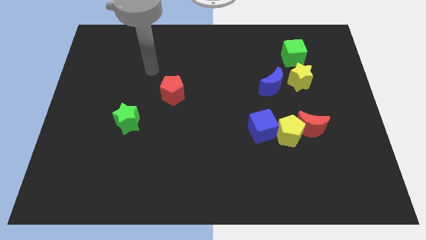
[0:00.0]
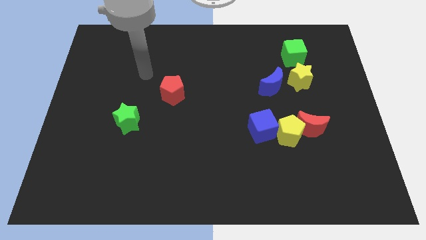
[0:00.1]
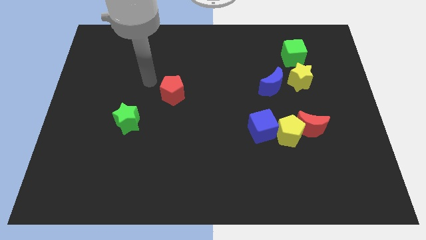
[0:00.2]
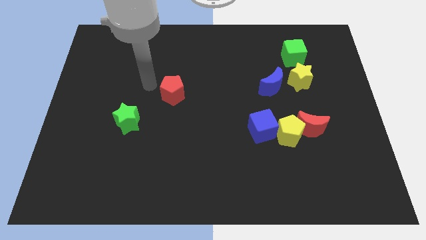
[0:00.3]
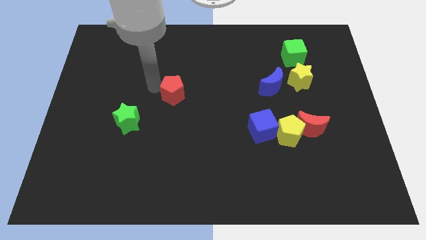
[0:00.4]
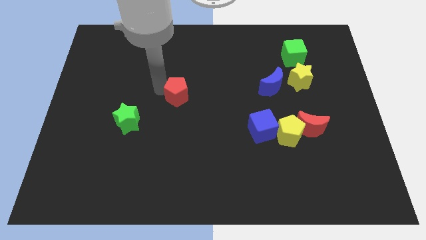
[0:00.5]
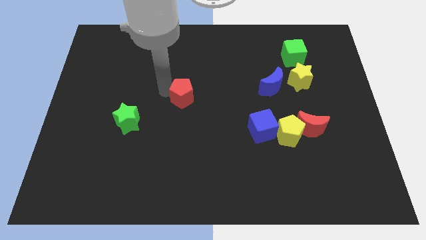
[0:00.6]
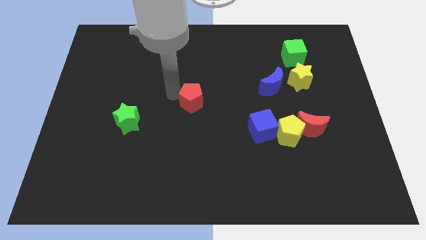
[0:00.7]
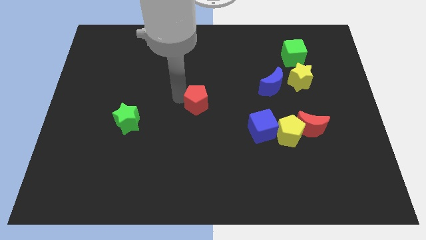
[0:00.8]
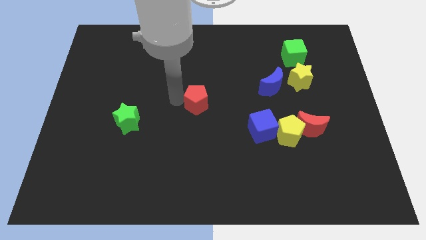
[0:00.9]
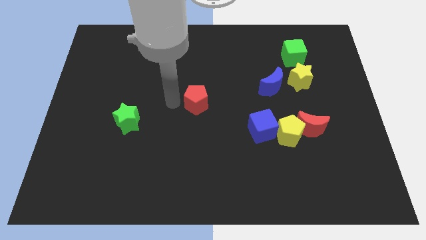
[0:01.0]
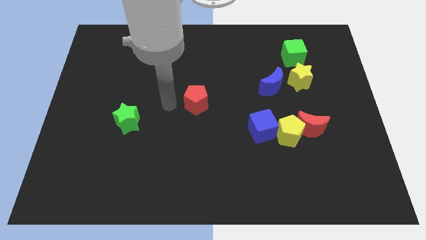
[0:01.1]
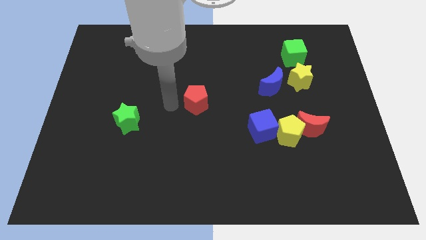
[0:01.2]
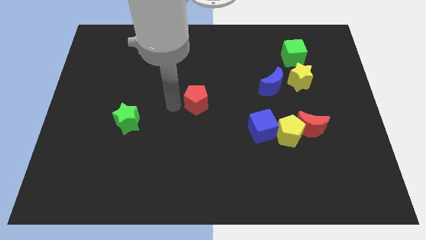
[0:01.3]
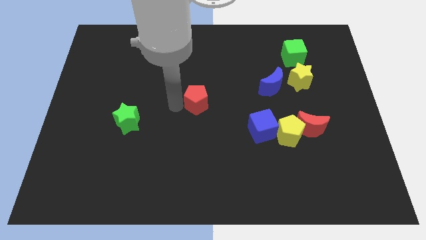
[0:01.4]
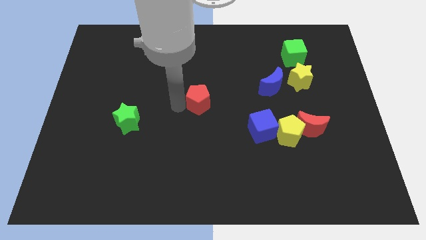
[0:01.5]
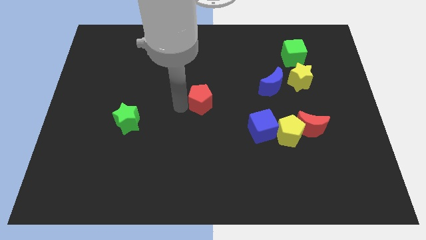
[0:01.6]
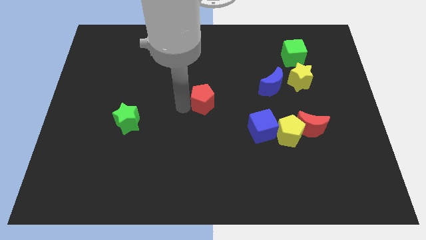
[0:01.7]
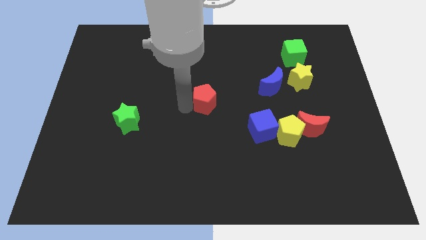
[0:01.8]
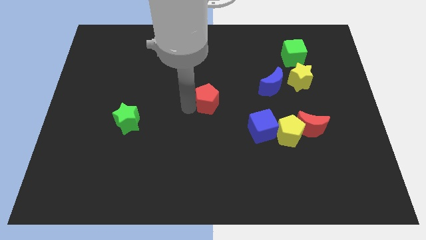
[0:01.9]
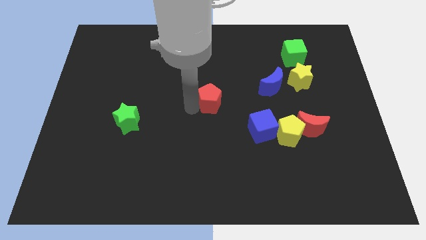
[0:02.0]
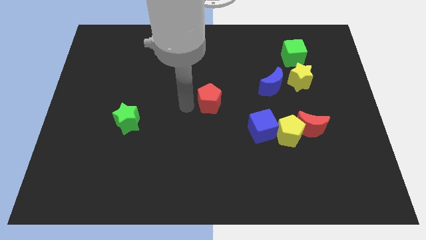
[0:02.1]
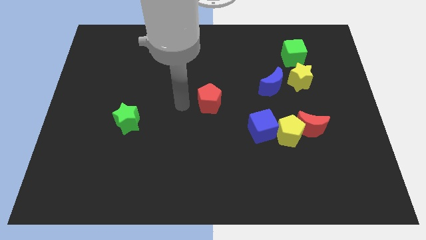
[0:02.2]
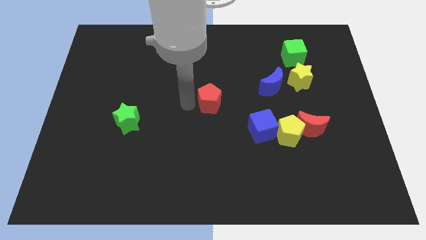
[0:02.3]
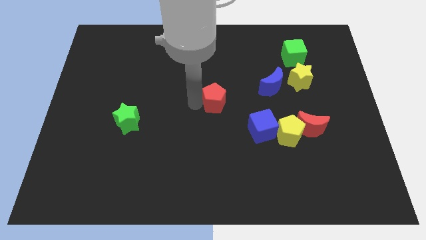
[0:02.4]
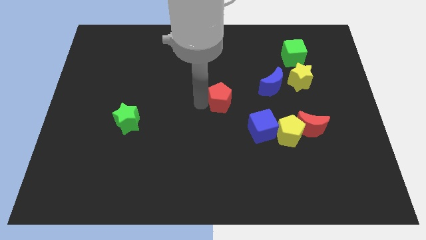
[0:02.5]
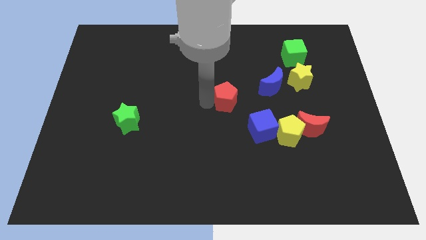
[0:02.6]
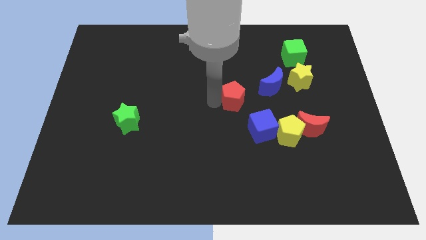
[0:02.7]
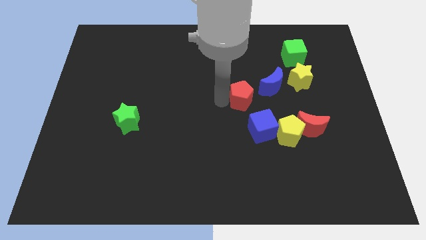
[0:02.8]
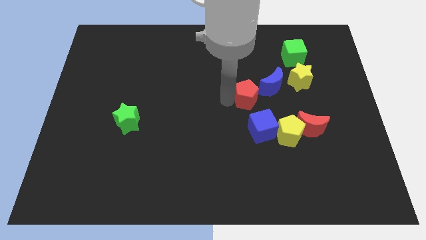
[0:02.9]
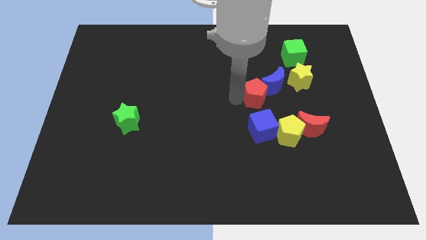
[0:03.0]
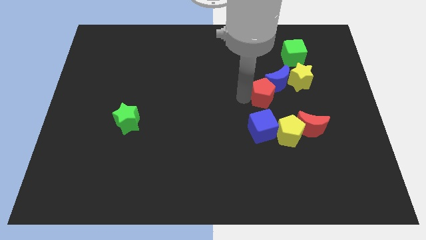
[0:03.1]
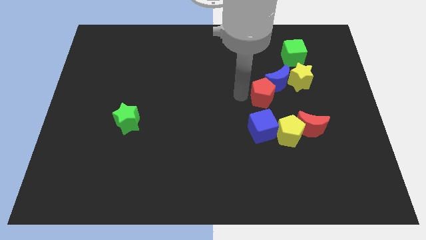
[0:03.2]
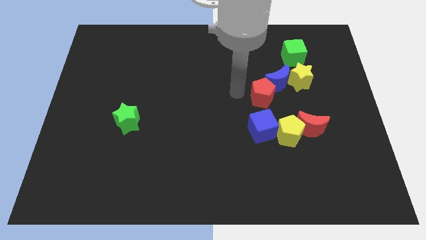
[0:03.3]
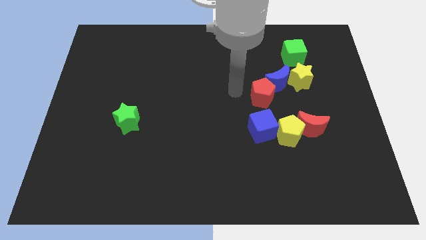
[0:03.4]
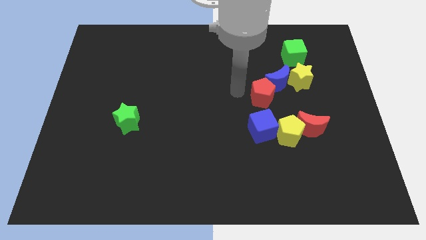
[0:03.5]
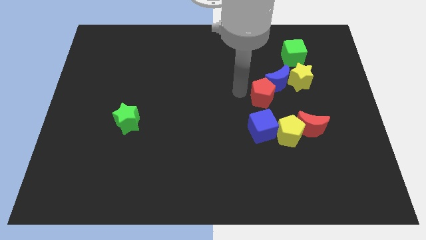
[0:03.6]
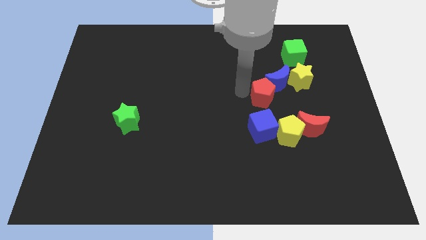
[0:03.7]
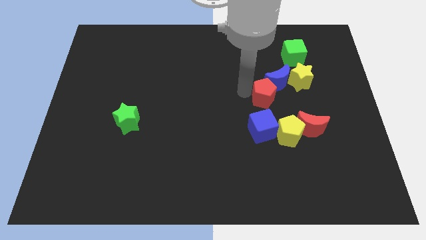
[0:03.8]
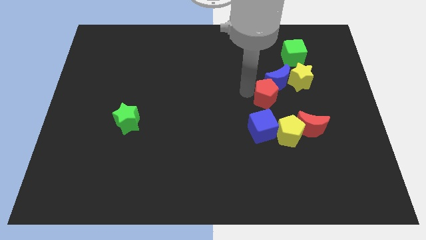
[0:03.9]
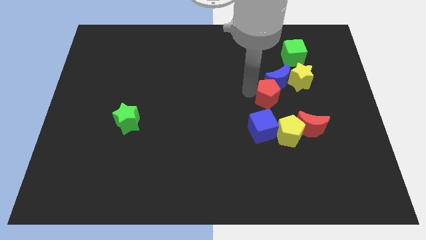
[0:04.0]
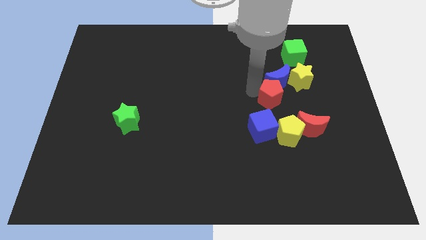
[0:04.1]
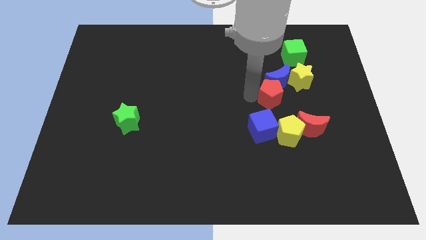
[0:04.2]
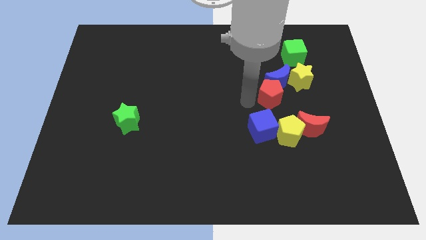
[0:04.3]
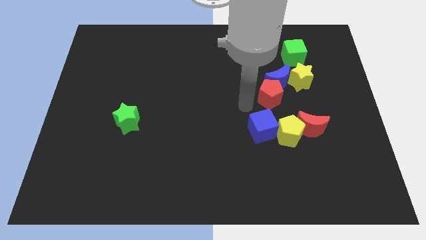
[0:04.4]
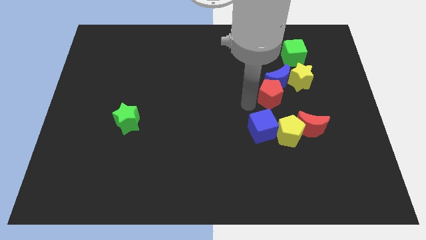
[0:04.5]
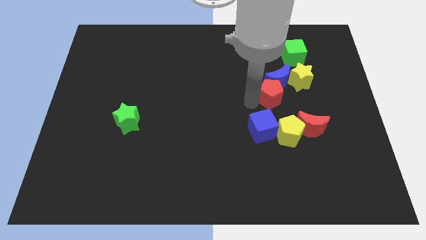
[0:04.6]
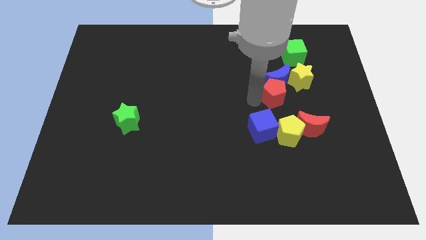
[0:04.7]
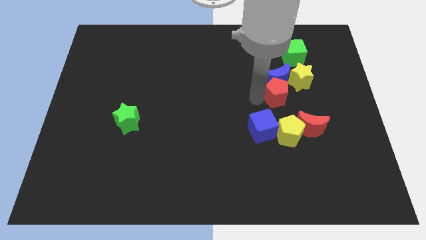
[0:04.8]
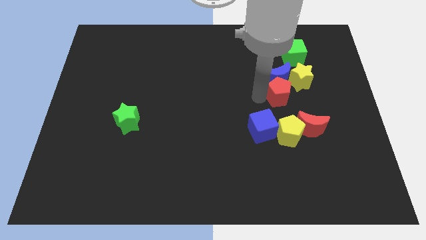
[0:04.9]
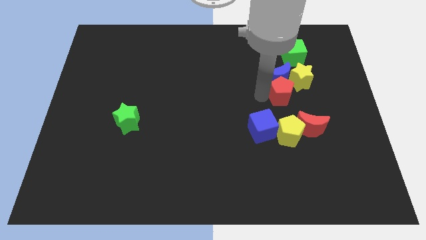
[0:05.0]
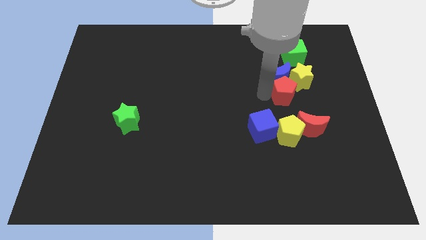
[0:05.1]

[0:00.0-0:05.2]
slide the red pentagon below the green cube

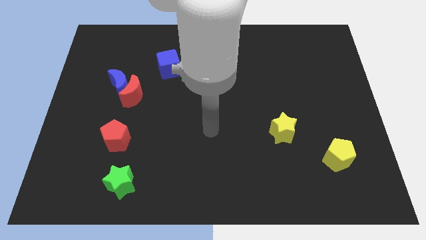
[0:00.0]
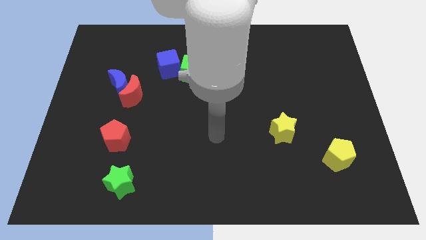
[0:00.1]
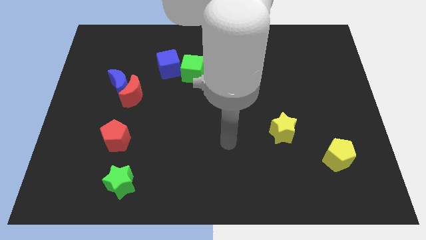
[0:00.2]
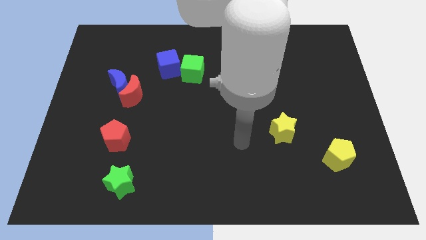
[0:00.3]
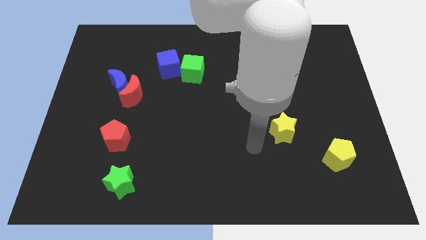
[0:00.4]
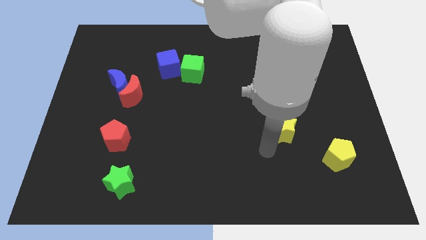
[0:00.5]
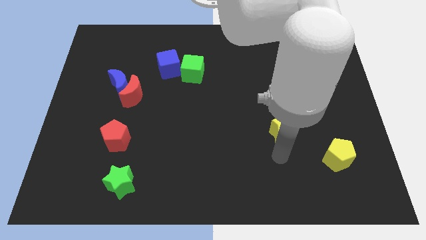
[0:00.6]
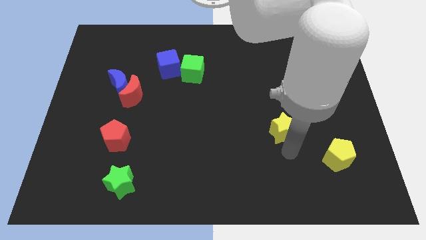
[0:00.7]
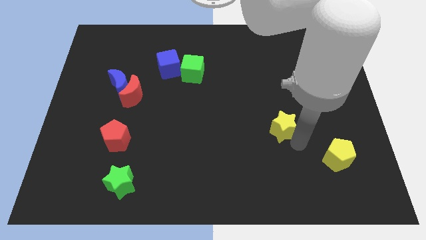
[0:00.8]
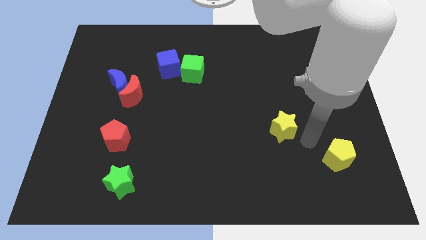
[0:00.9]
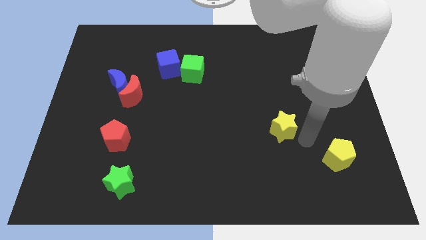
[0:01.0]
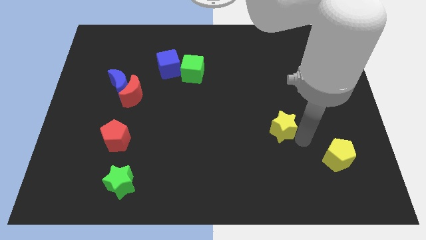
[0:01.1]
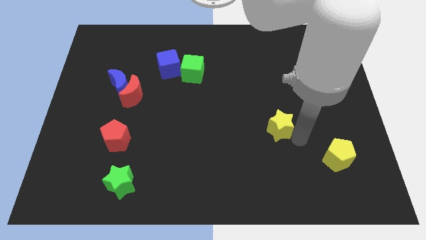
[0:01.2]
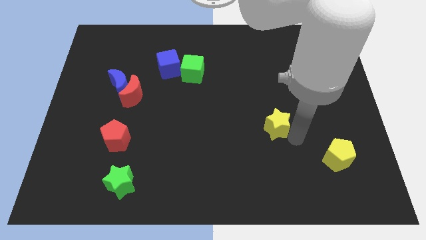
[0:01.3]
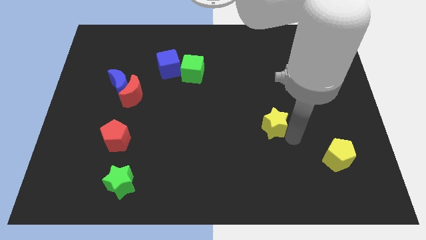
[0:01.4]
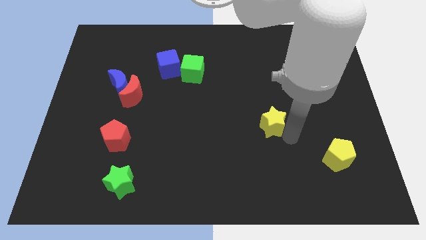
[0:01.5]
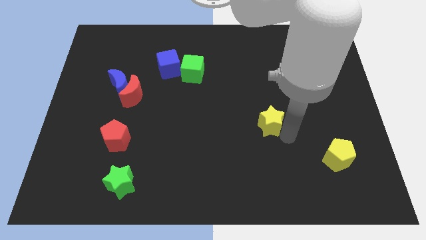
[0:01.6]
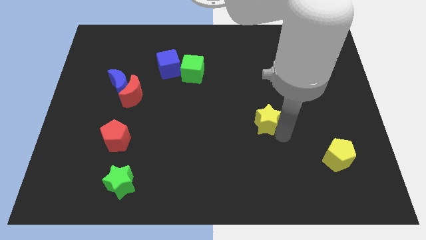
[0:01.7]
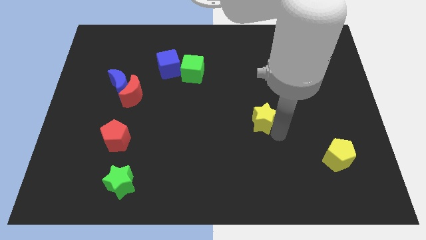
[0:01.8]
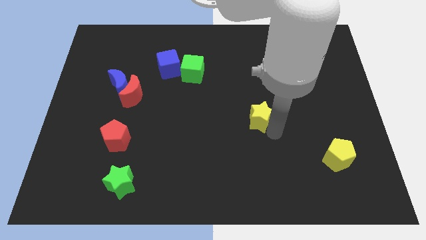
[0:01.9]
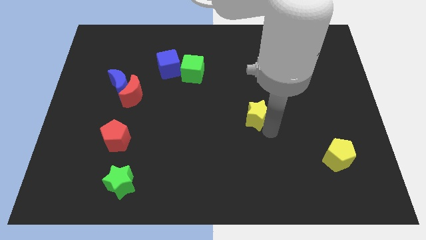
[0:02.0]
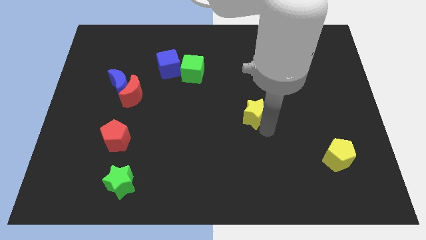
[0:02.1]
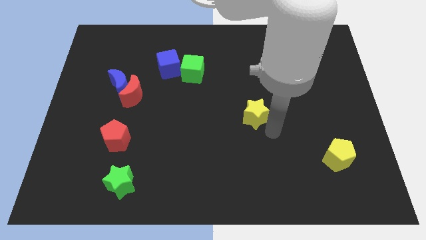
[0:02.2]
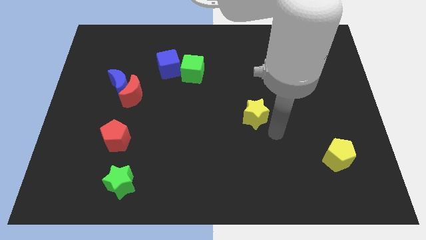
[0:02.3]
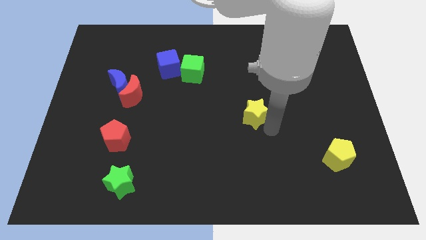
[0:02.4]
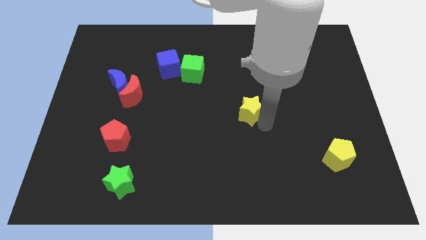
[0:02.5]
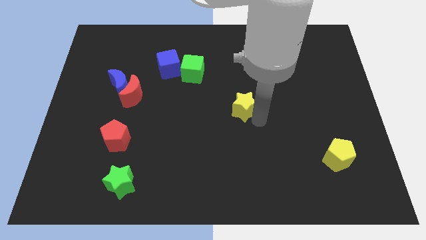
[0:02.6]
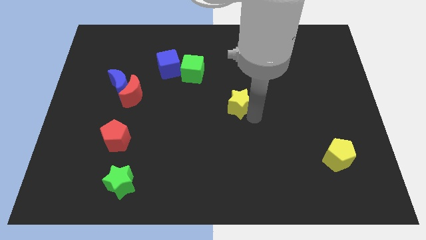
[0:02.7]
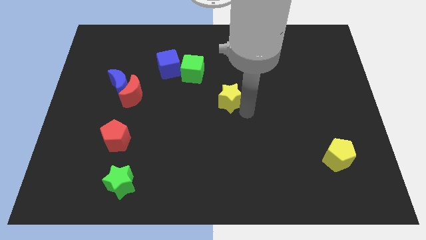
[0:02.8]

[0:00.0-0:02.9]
slide the yellow star to the bottom right side of the green cube
